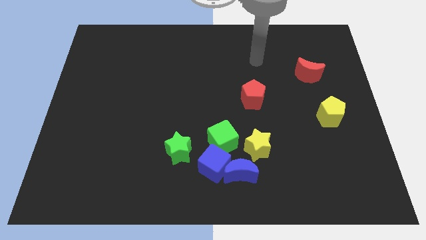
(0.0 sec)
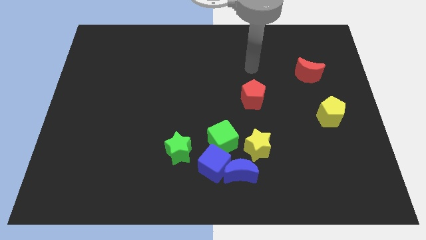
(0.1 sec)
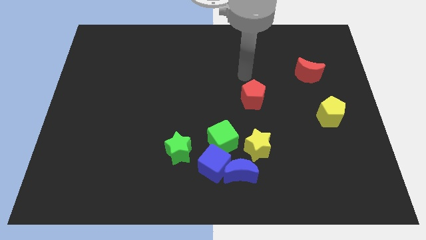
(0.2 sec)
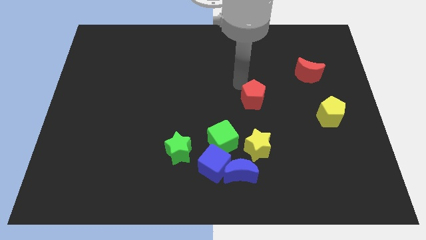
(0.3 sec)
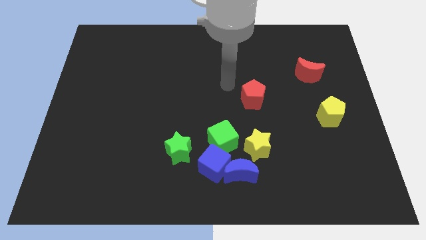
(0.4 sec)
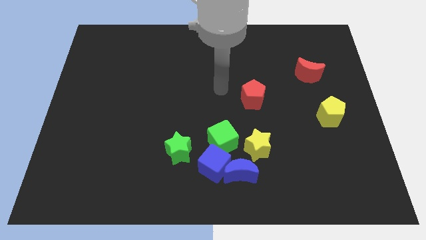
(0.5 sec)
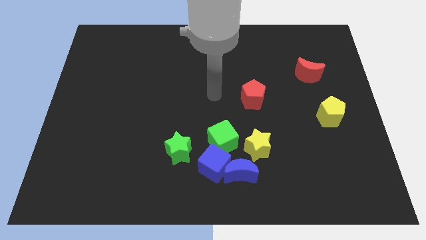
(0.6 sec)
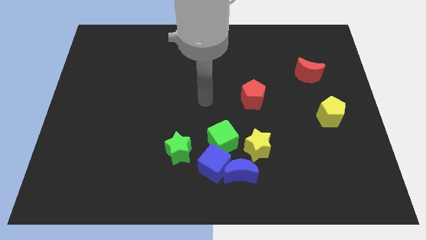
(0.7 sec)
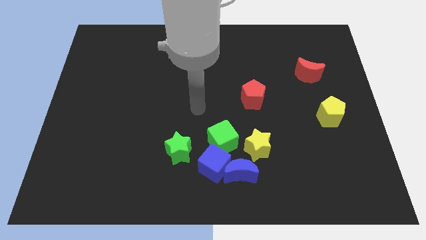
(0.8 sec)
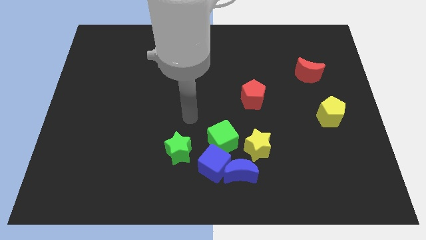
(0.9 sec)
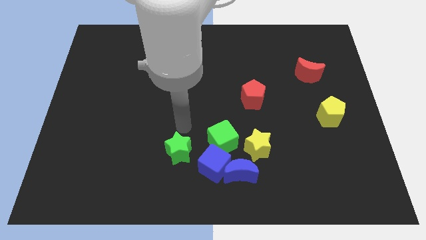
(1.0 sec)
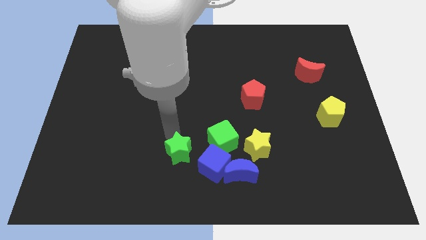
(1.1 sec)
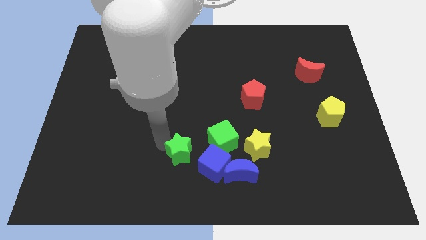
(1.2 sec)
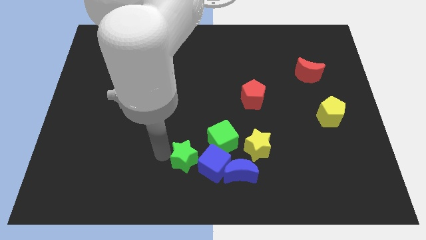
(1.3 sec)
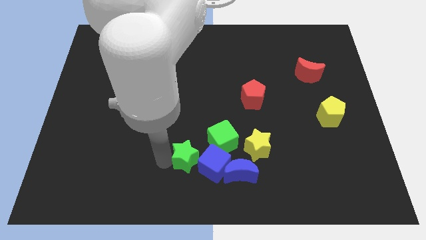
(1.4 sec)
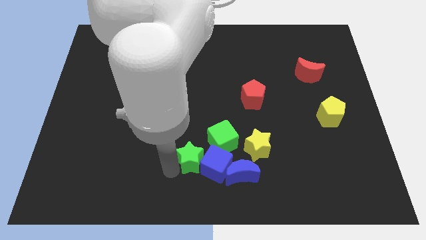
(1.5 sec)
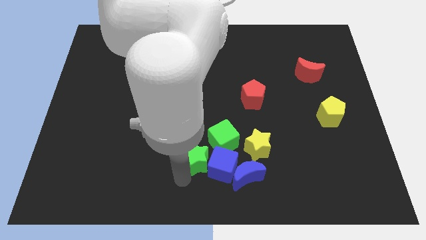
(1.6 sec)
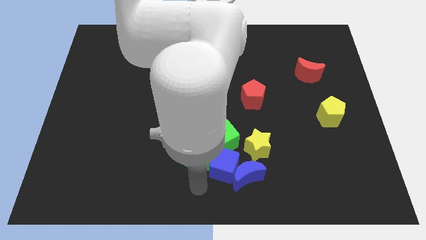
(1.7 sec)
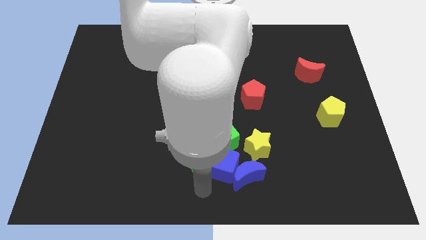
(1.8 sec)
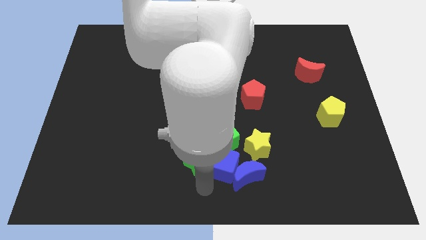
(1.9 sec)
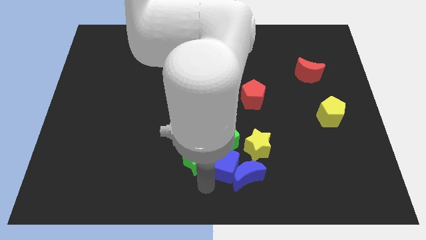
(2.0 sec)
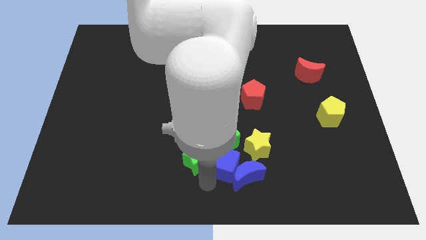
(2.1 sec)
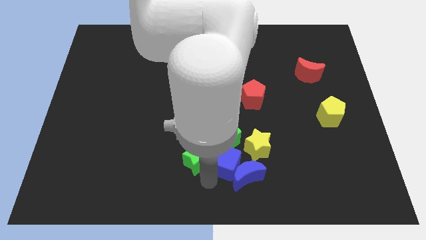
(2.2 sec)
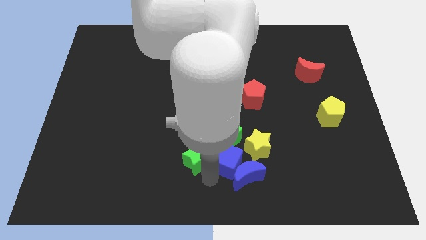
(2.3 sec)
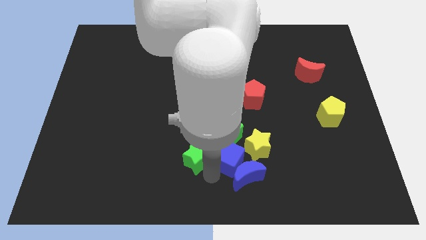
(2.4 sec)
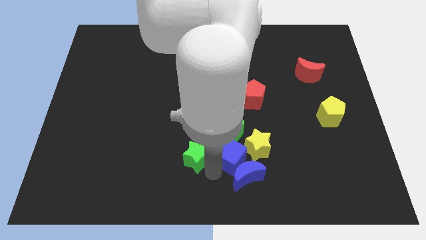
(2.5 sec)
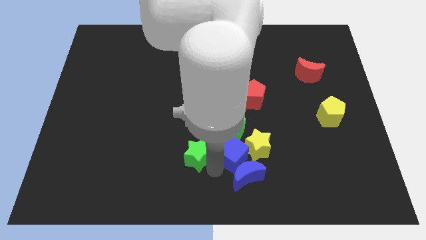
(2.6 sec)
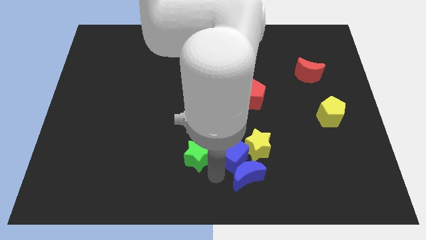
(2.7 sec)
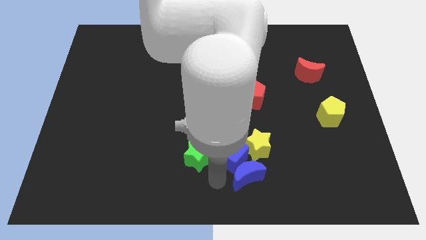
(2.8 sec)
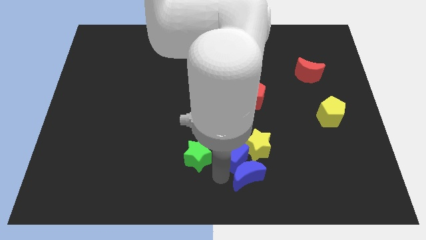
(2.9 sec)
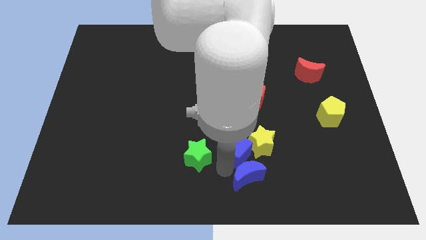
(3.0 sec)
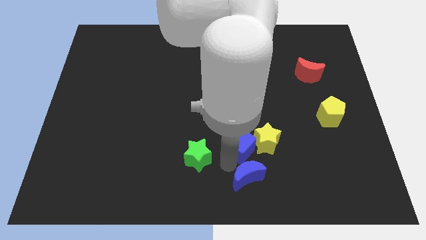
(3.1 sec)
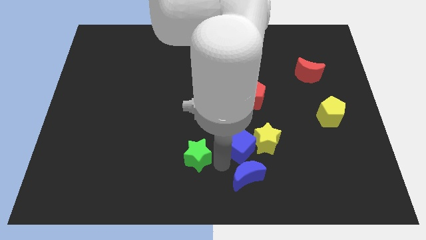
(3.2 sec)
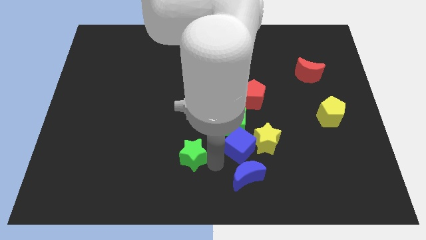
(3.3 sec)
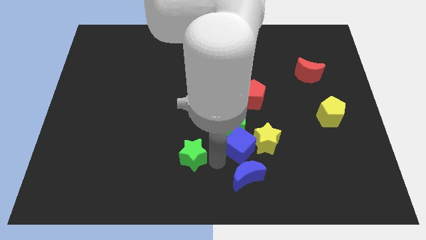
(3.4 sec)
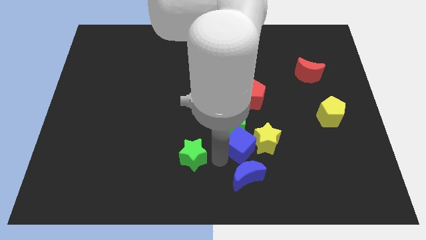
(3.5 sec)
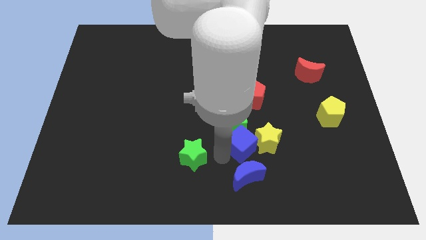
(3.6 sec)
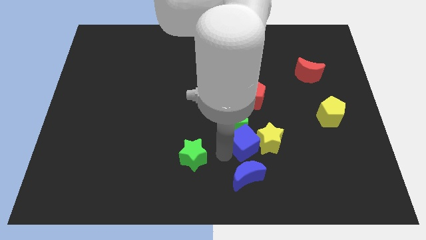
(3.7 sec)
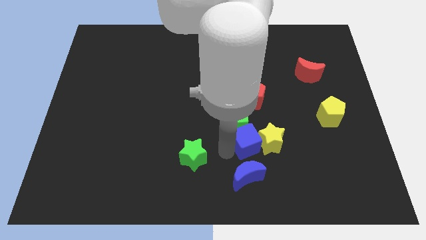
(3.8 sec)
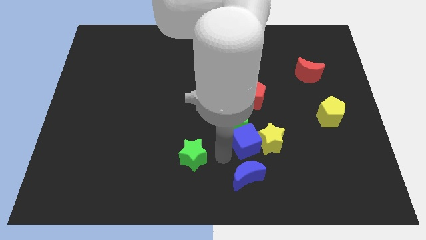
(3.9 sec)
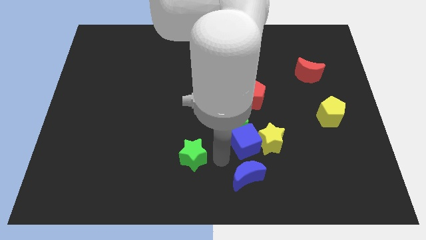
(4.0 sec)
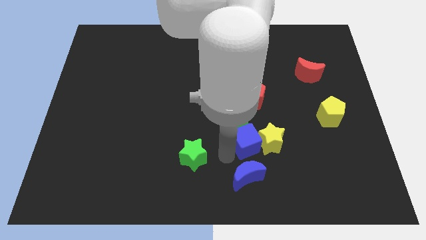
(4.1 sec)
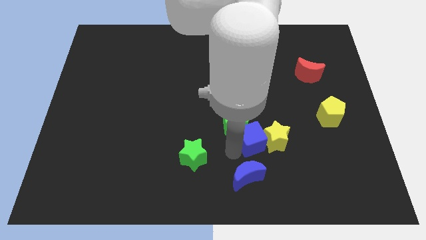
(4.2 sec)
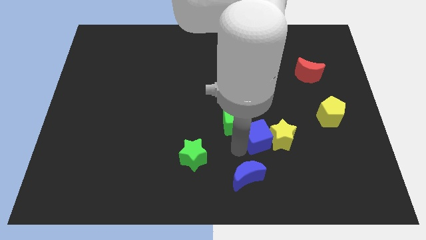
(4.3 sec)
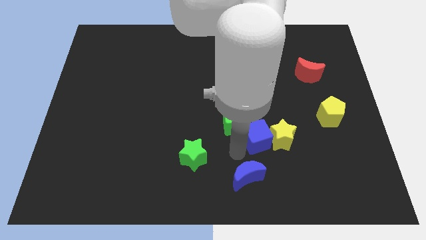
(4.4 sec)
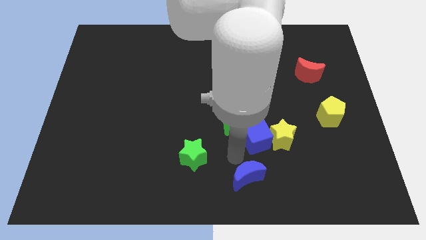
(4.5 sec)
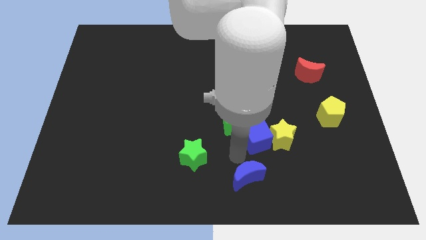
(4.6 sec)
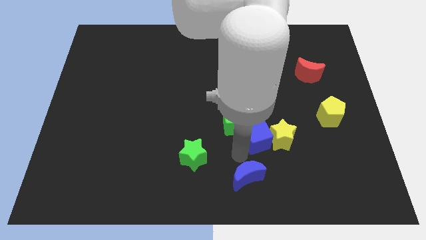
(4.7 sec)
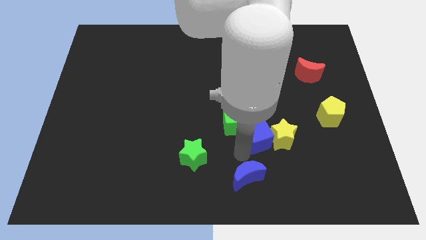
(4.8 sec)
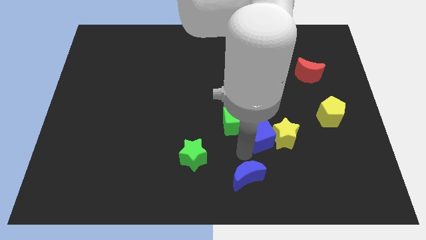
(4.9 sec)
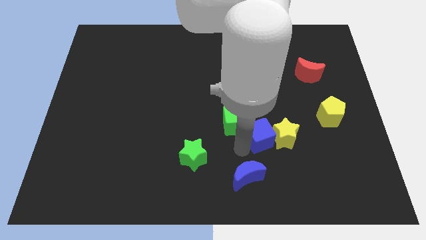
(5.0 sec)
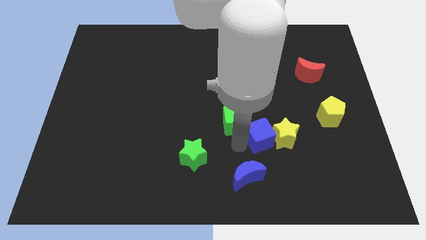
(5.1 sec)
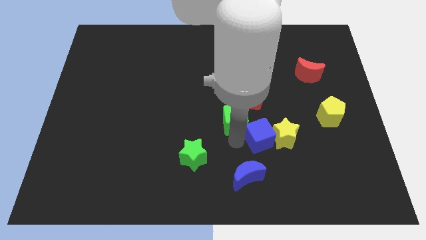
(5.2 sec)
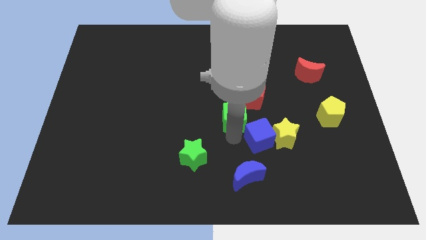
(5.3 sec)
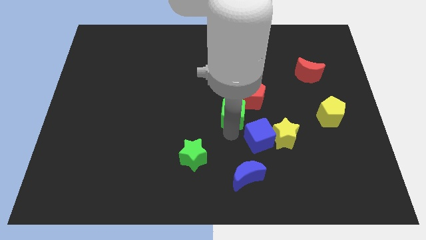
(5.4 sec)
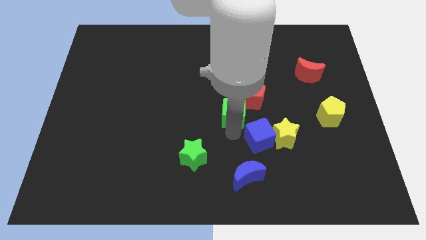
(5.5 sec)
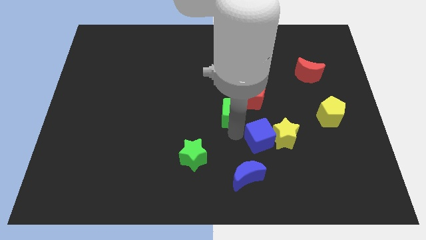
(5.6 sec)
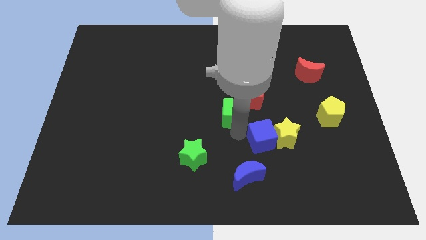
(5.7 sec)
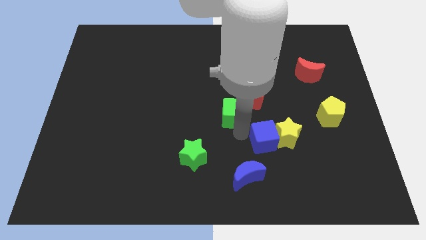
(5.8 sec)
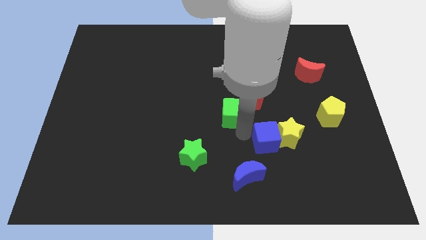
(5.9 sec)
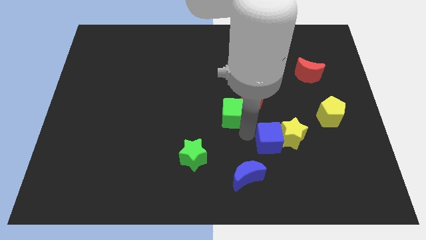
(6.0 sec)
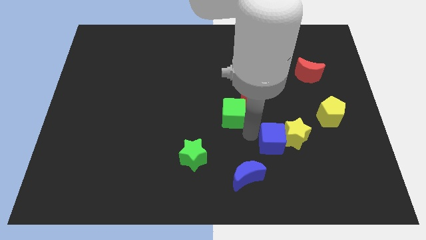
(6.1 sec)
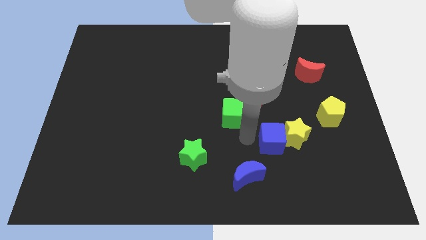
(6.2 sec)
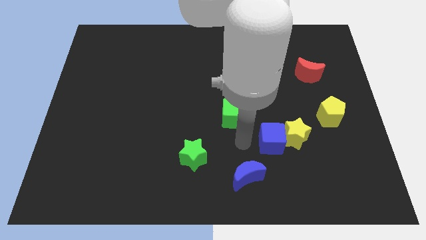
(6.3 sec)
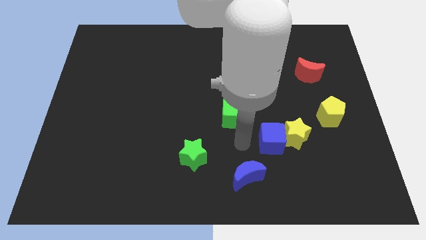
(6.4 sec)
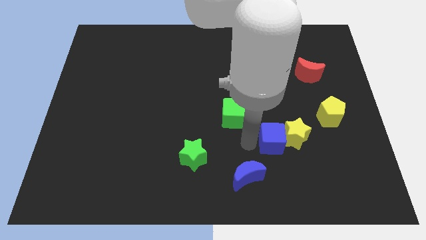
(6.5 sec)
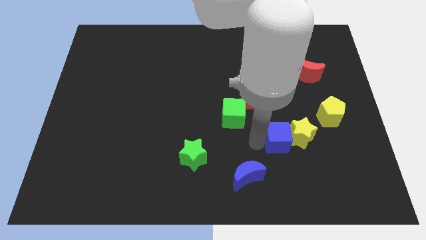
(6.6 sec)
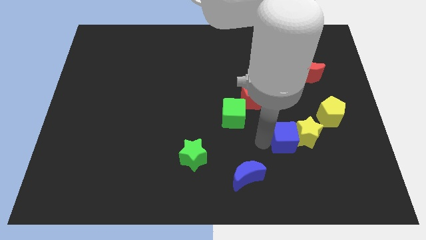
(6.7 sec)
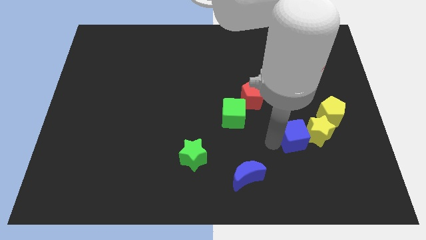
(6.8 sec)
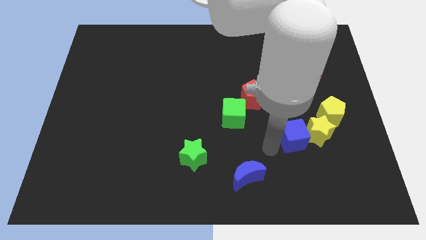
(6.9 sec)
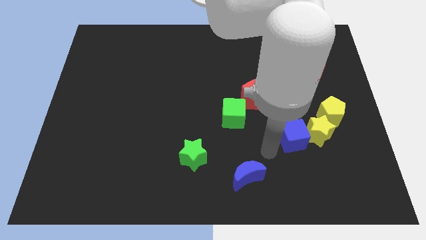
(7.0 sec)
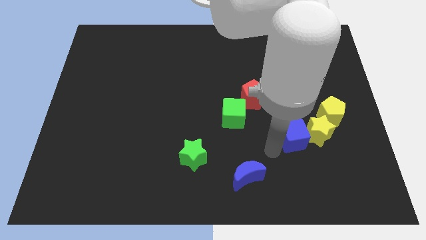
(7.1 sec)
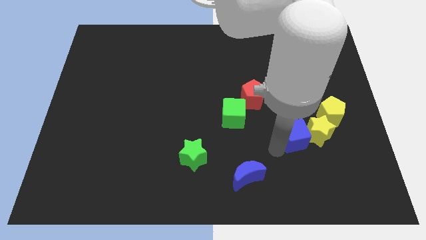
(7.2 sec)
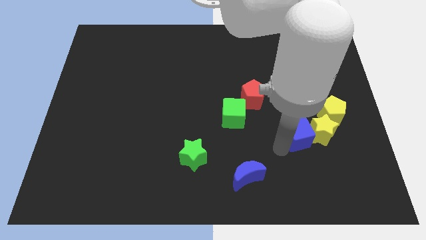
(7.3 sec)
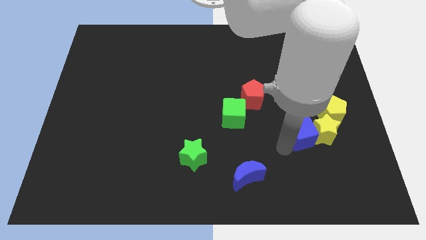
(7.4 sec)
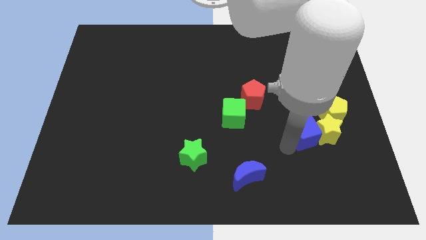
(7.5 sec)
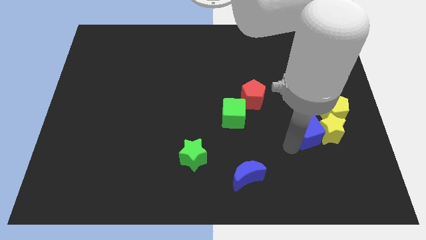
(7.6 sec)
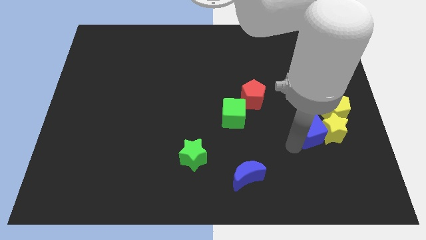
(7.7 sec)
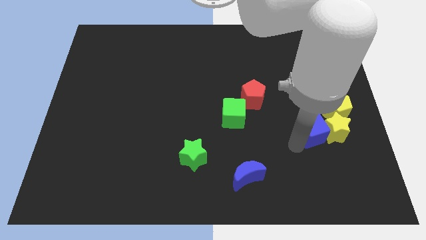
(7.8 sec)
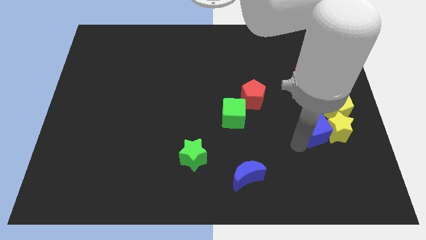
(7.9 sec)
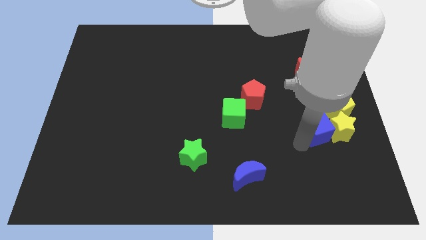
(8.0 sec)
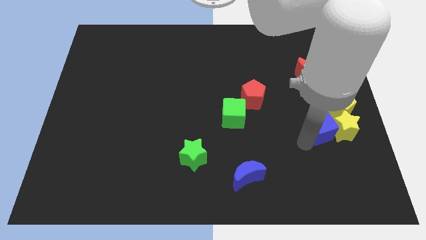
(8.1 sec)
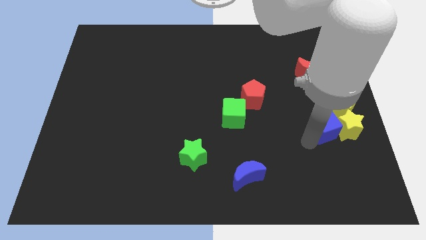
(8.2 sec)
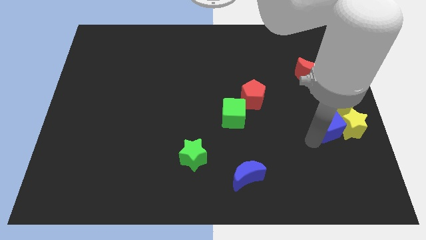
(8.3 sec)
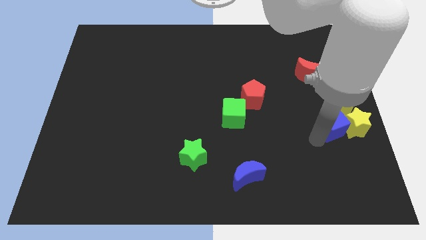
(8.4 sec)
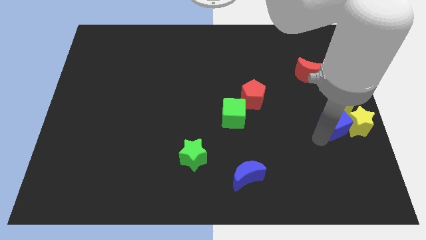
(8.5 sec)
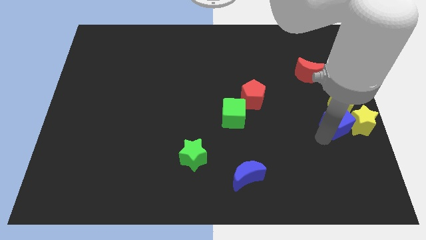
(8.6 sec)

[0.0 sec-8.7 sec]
put the blue cube towards the yellow pentagon
